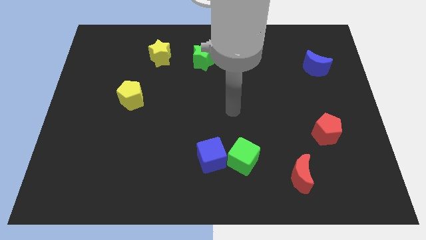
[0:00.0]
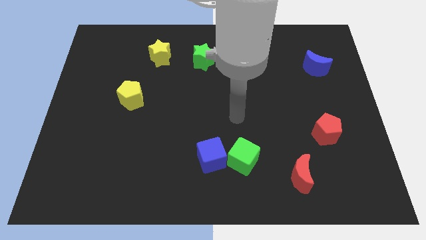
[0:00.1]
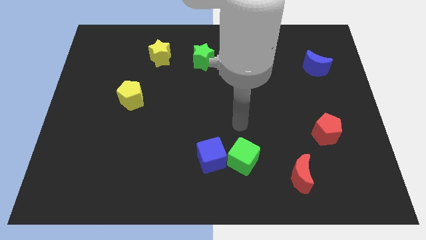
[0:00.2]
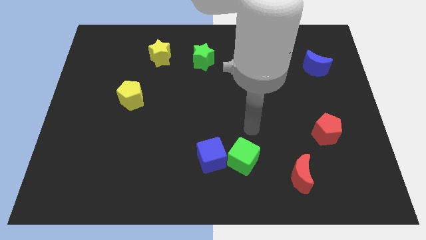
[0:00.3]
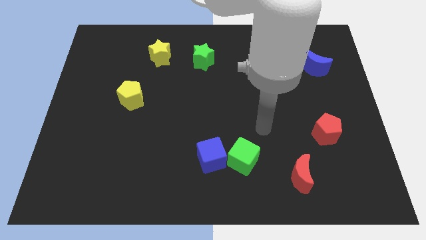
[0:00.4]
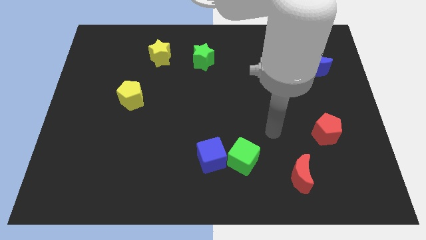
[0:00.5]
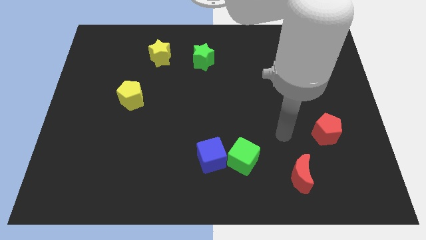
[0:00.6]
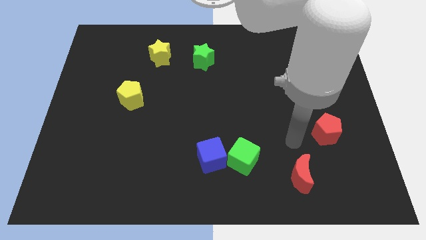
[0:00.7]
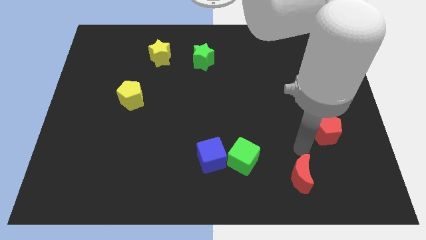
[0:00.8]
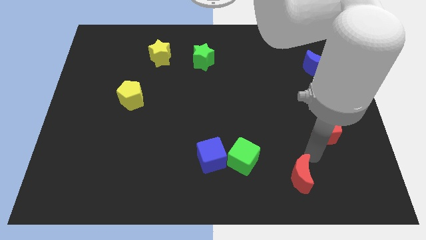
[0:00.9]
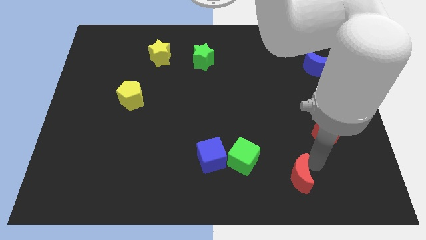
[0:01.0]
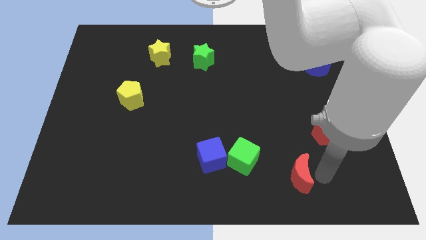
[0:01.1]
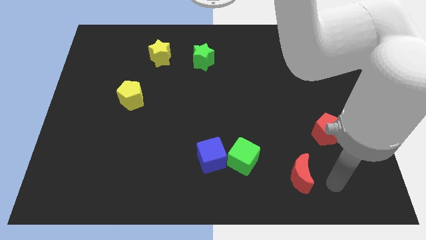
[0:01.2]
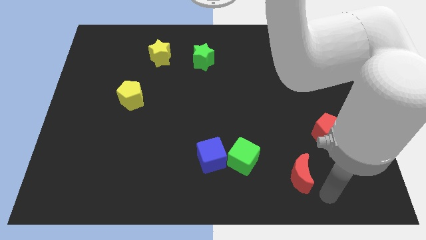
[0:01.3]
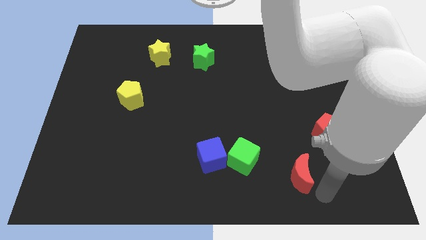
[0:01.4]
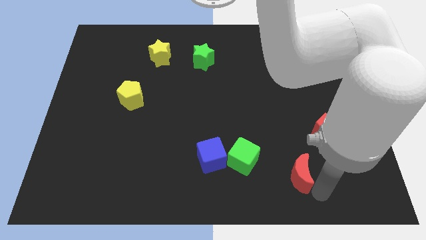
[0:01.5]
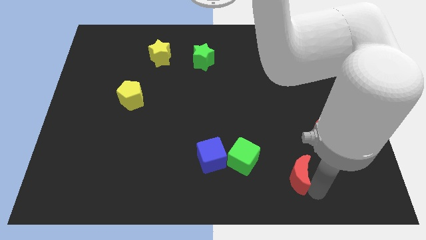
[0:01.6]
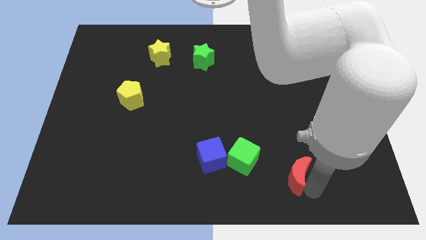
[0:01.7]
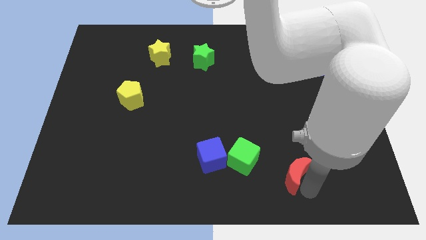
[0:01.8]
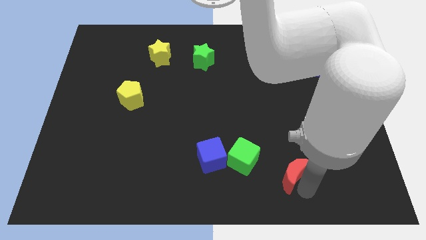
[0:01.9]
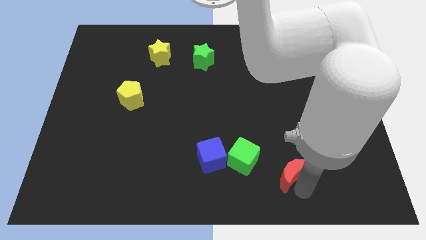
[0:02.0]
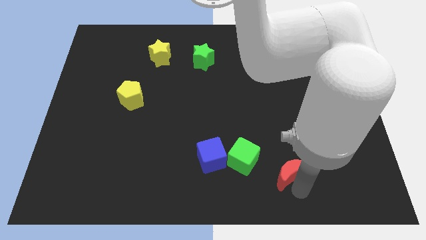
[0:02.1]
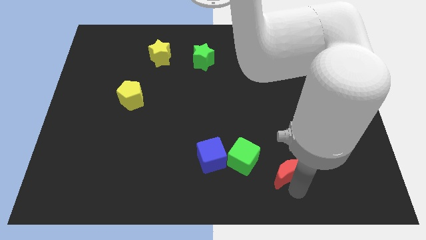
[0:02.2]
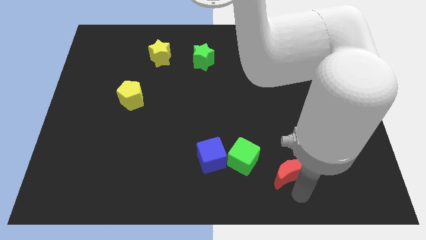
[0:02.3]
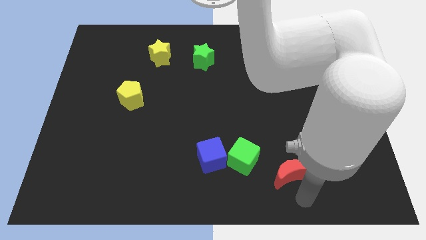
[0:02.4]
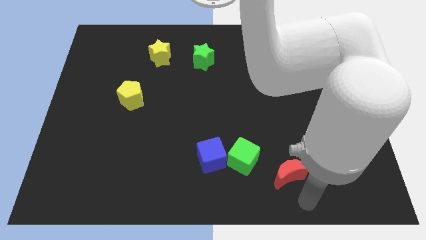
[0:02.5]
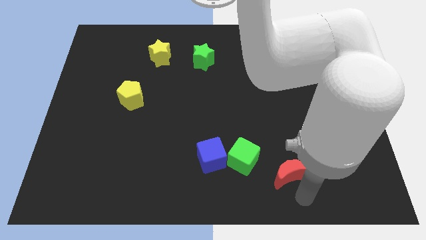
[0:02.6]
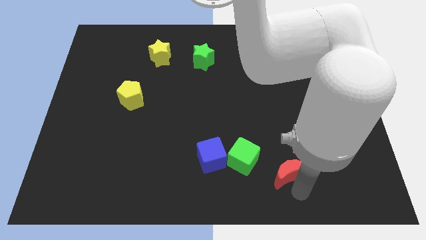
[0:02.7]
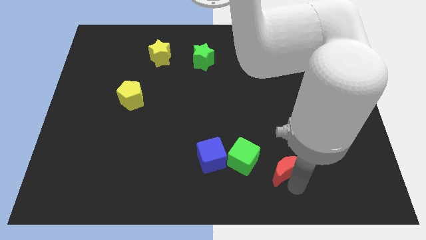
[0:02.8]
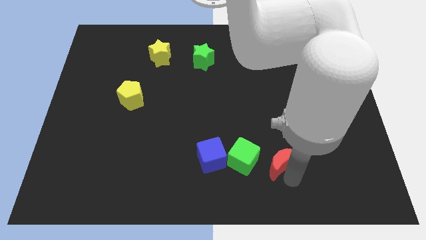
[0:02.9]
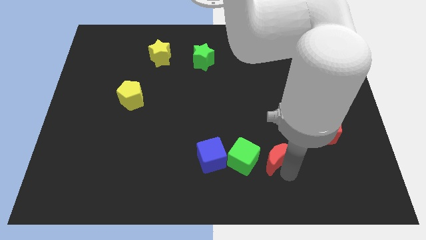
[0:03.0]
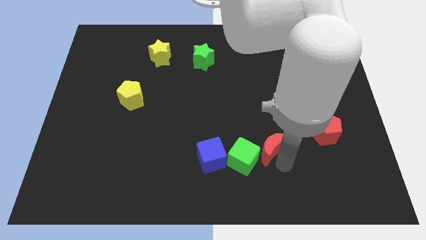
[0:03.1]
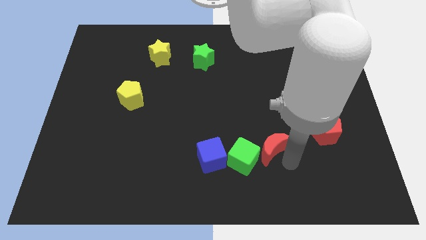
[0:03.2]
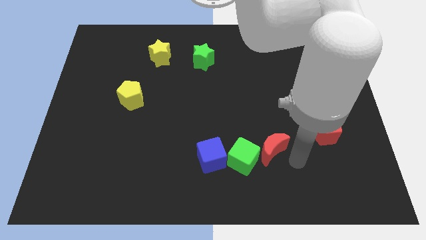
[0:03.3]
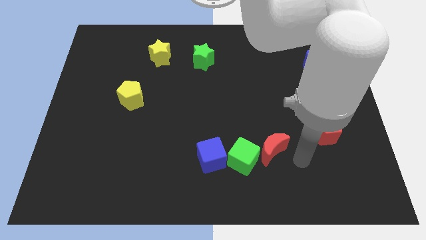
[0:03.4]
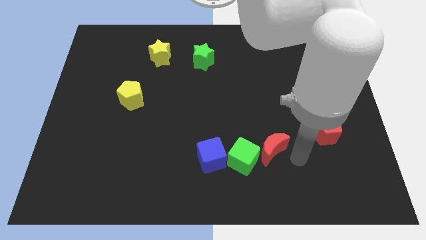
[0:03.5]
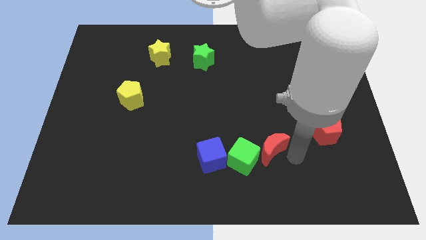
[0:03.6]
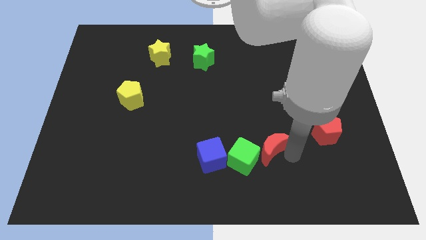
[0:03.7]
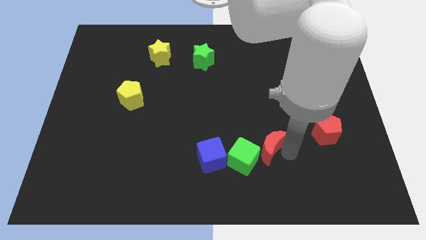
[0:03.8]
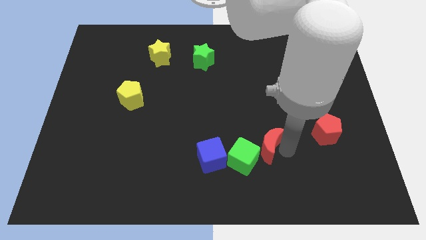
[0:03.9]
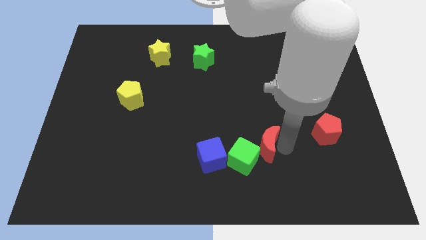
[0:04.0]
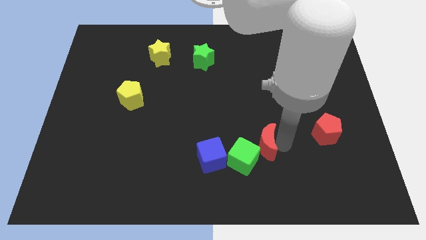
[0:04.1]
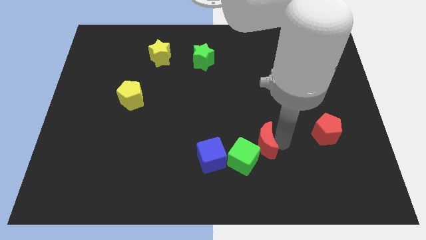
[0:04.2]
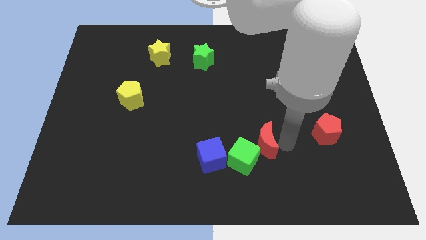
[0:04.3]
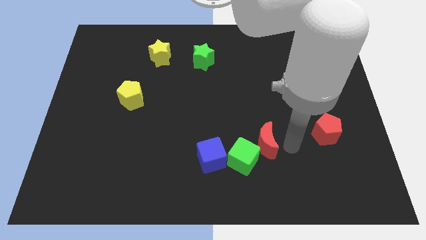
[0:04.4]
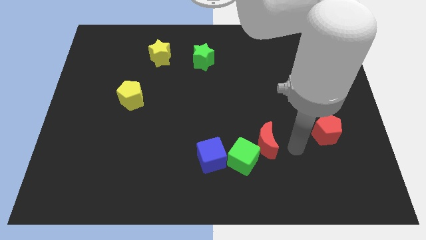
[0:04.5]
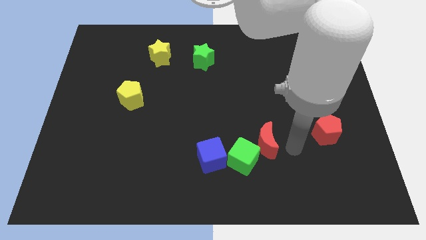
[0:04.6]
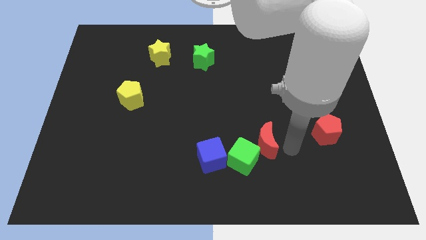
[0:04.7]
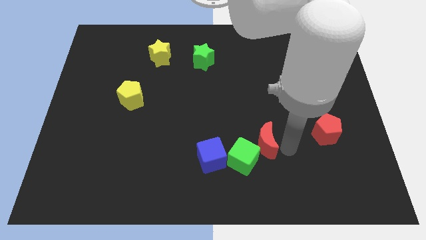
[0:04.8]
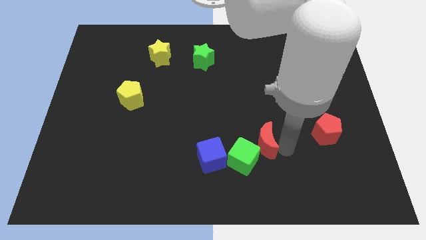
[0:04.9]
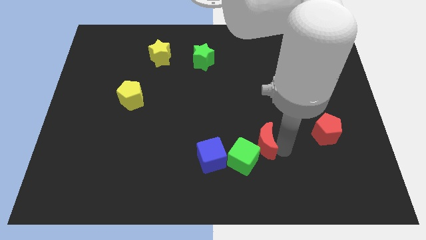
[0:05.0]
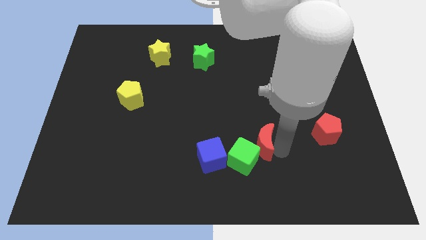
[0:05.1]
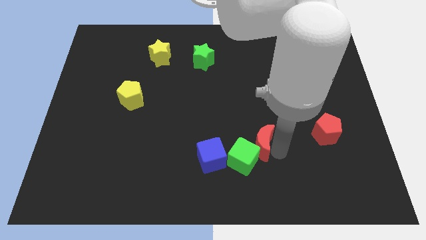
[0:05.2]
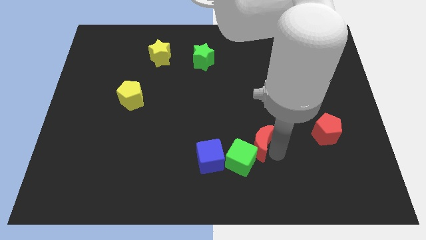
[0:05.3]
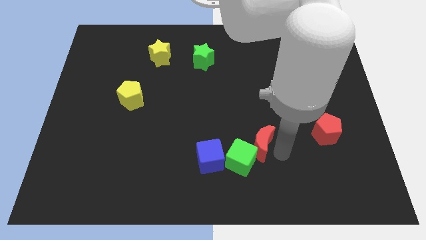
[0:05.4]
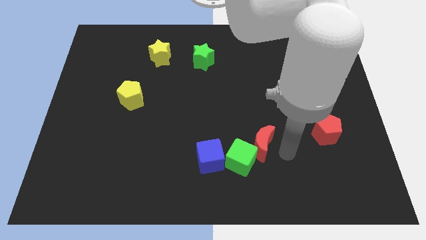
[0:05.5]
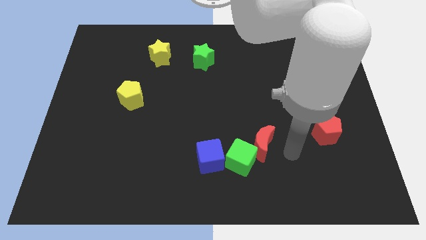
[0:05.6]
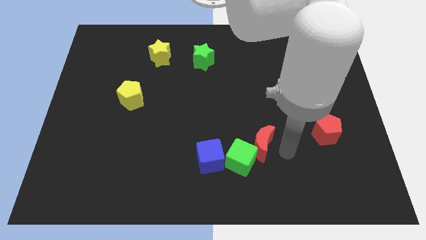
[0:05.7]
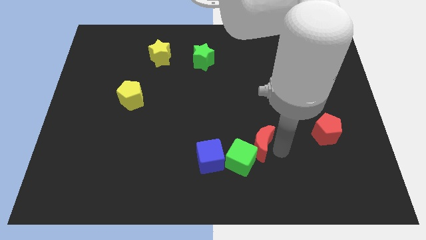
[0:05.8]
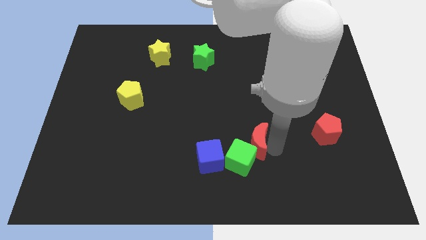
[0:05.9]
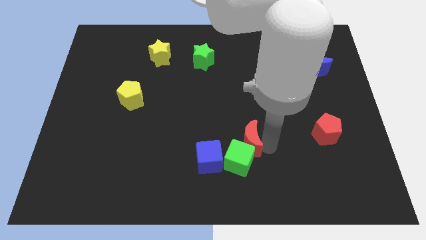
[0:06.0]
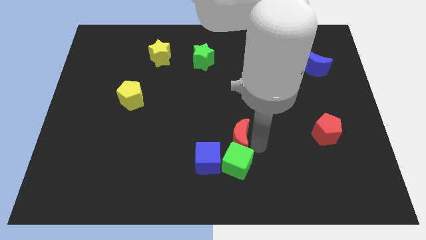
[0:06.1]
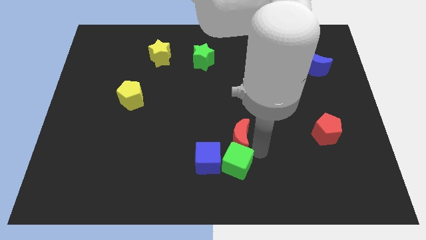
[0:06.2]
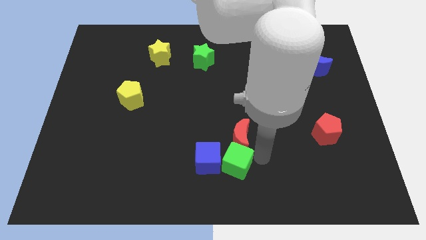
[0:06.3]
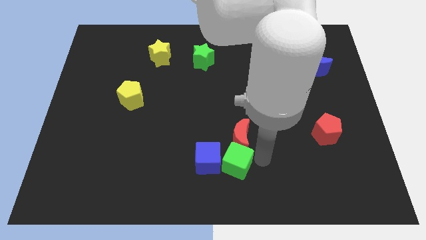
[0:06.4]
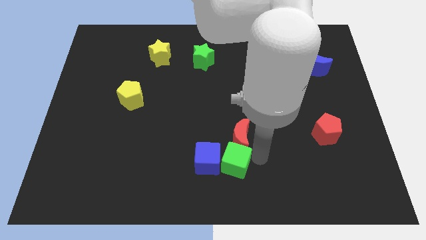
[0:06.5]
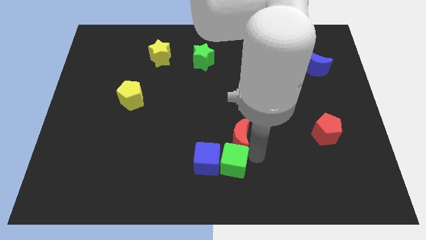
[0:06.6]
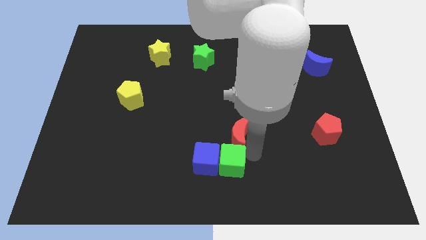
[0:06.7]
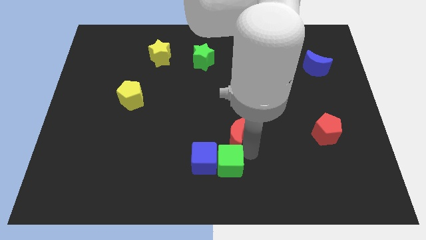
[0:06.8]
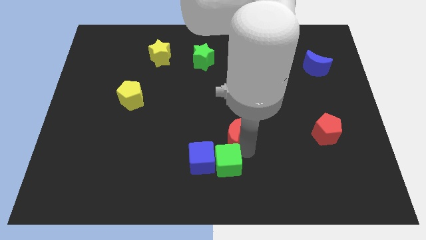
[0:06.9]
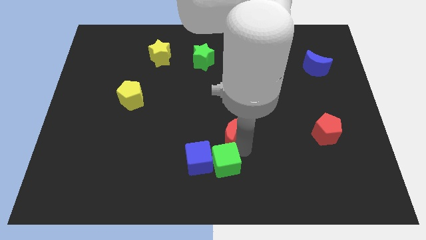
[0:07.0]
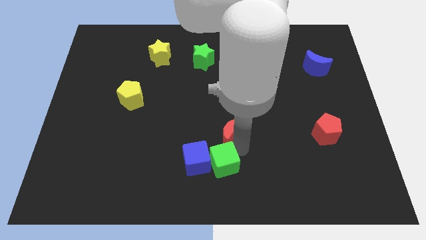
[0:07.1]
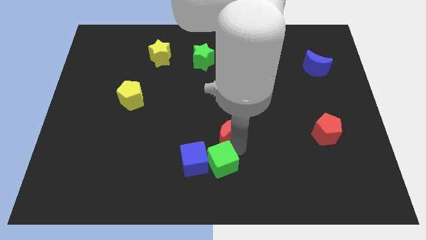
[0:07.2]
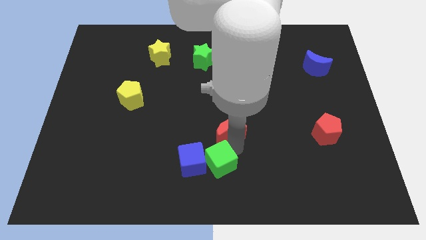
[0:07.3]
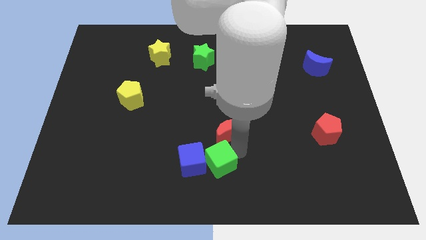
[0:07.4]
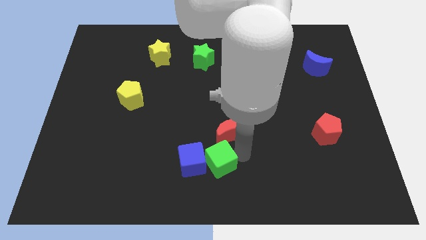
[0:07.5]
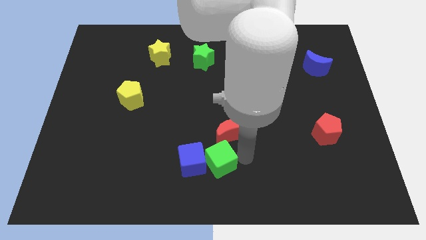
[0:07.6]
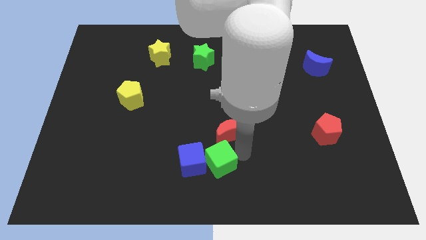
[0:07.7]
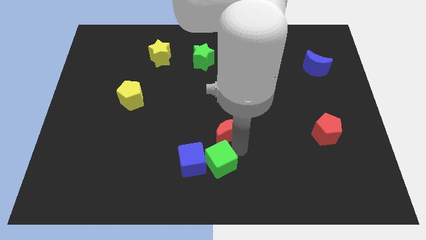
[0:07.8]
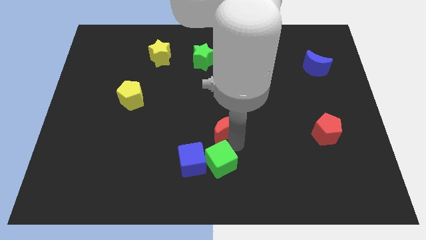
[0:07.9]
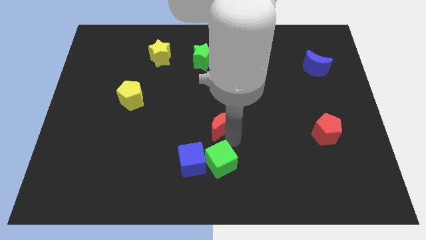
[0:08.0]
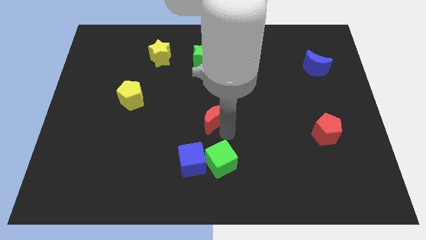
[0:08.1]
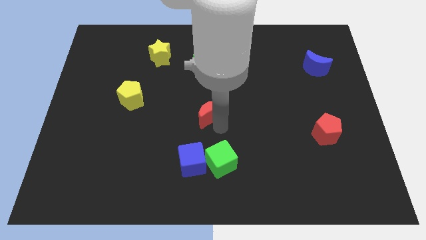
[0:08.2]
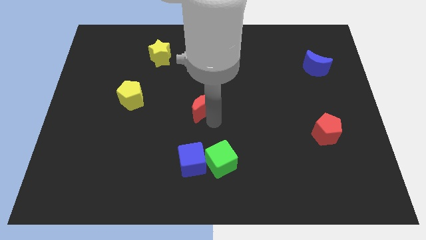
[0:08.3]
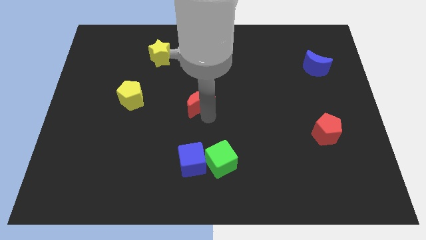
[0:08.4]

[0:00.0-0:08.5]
move the red moon to the bottom side of the green star
